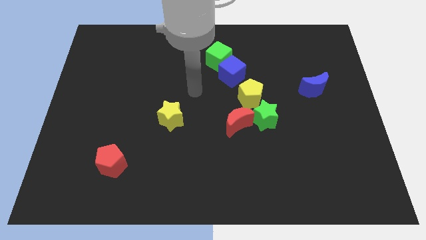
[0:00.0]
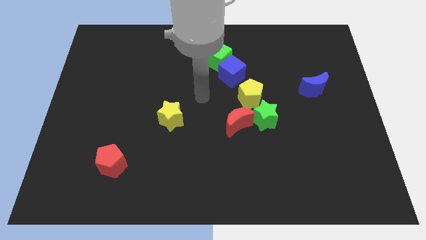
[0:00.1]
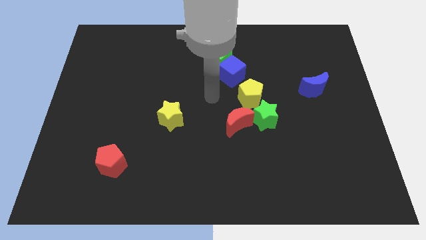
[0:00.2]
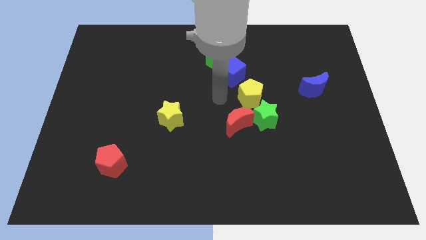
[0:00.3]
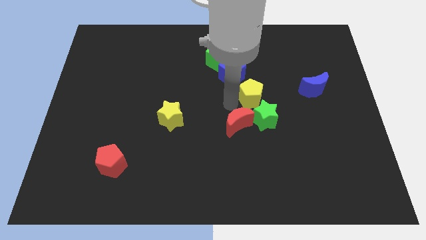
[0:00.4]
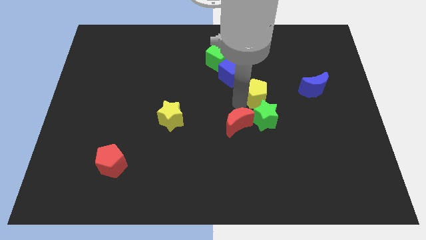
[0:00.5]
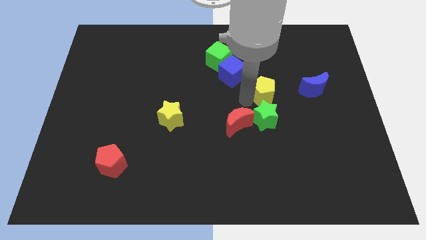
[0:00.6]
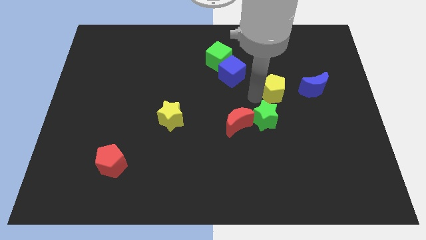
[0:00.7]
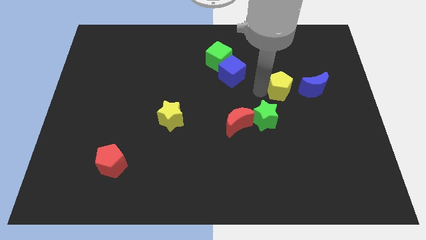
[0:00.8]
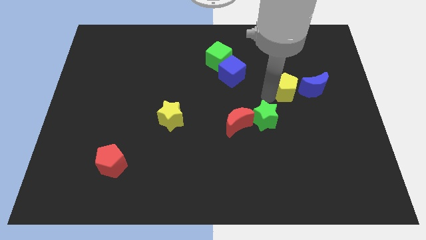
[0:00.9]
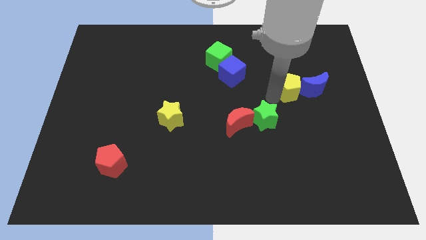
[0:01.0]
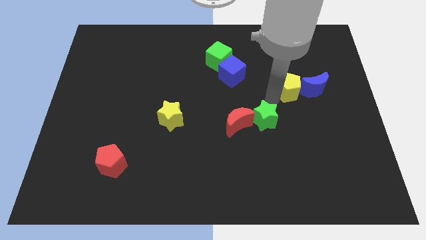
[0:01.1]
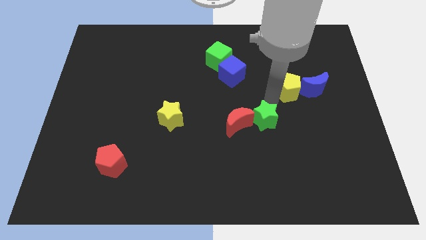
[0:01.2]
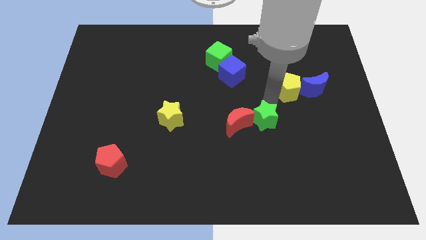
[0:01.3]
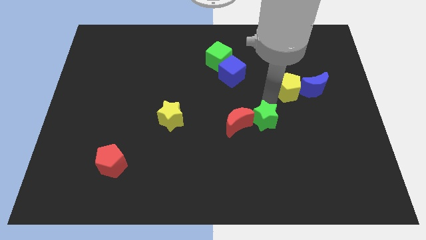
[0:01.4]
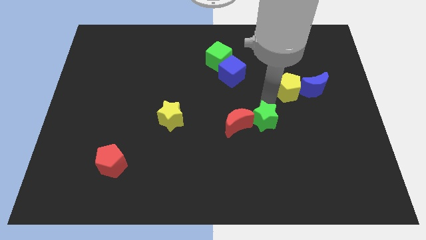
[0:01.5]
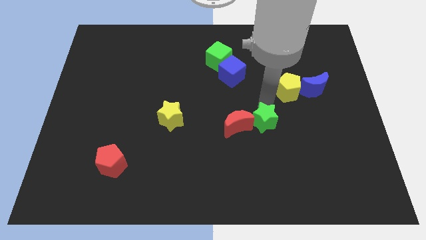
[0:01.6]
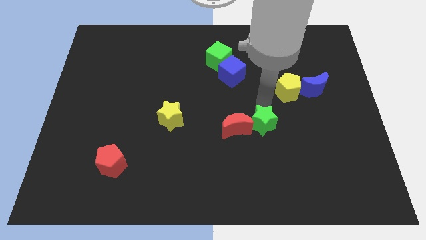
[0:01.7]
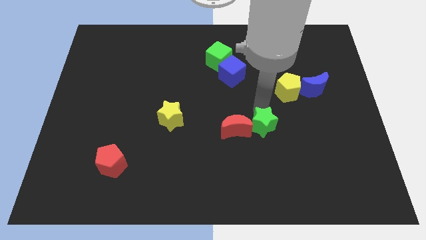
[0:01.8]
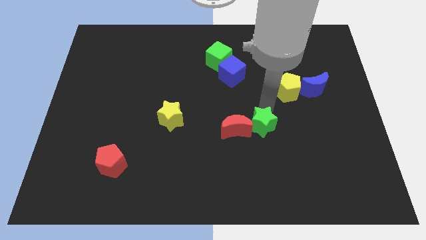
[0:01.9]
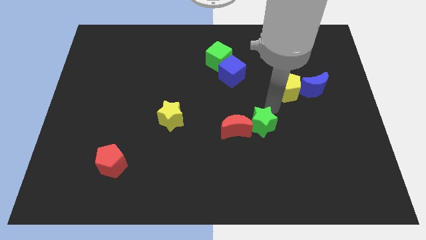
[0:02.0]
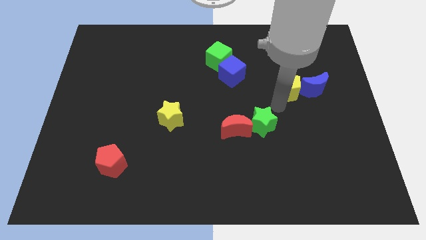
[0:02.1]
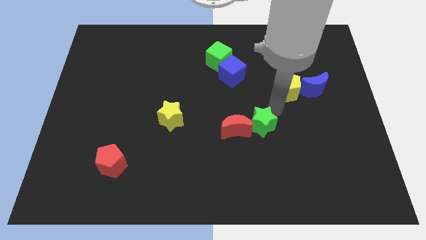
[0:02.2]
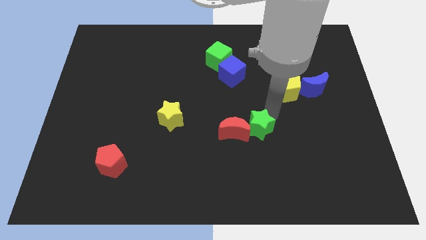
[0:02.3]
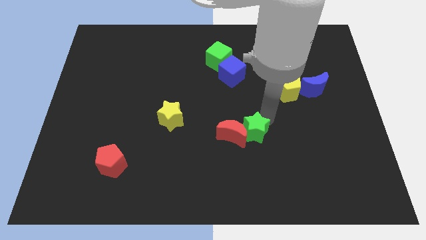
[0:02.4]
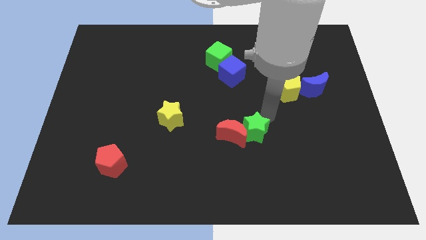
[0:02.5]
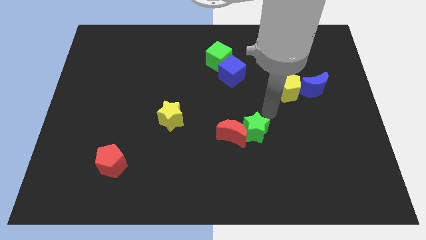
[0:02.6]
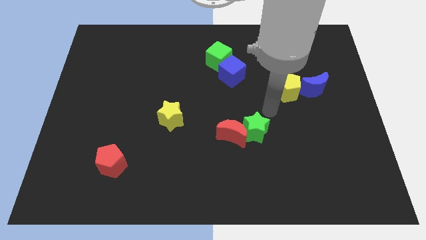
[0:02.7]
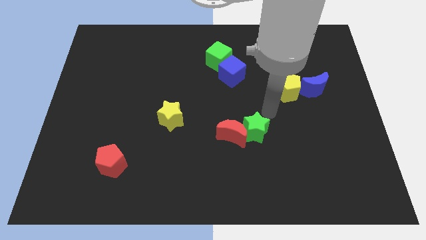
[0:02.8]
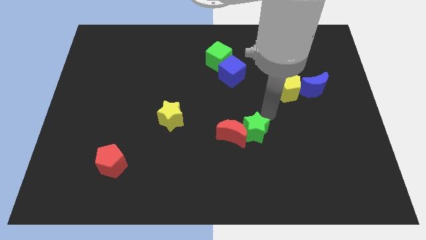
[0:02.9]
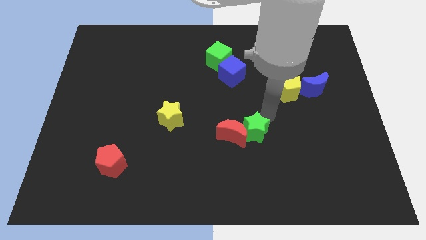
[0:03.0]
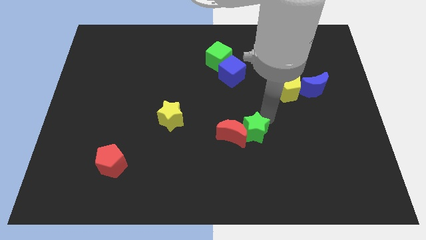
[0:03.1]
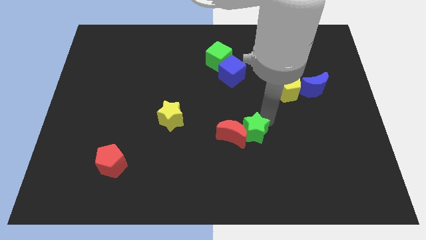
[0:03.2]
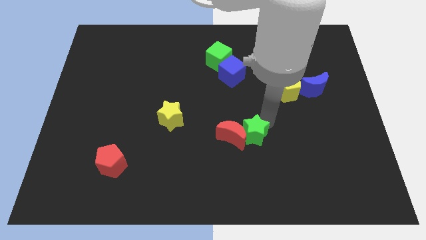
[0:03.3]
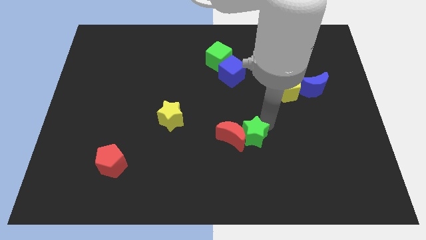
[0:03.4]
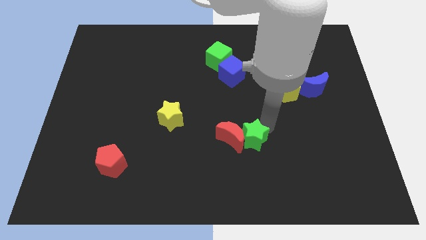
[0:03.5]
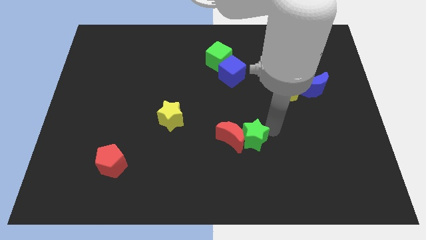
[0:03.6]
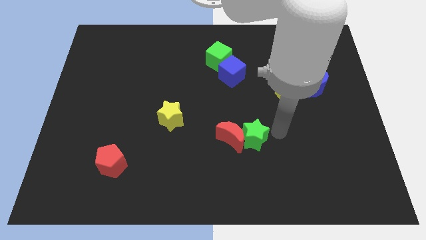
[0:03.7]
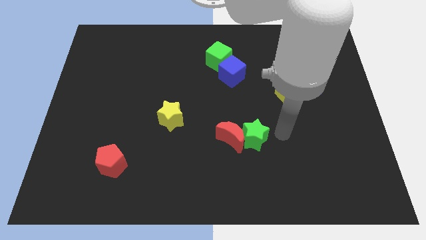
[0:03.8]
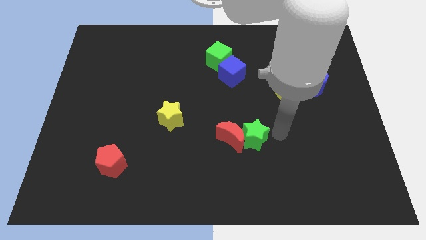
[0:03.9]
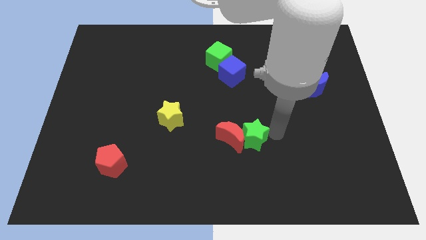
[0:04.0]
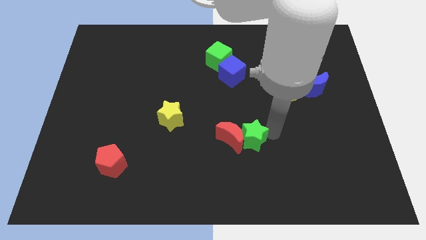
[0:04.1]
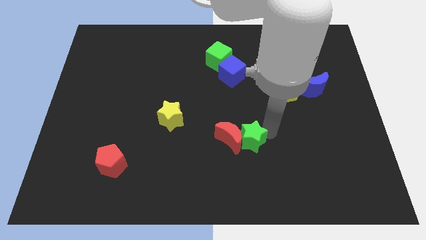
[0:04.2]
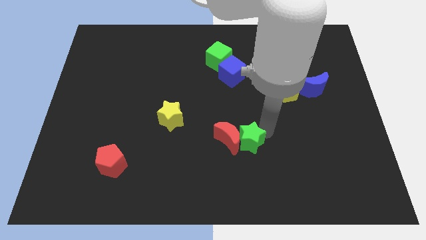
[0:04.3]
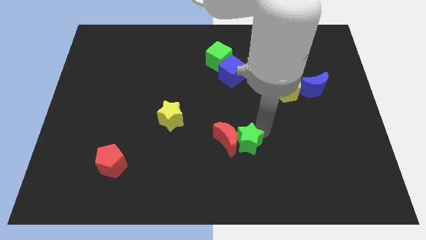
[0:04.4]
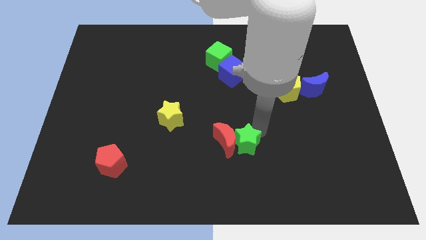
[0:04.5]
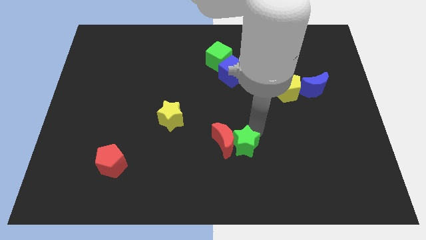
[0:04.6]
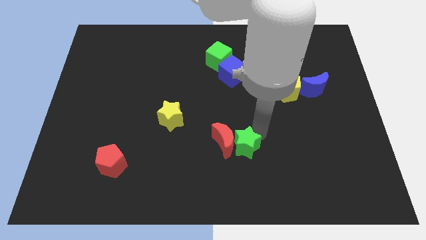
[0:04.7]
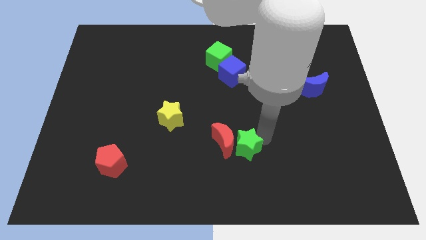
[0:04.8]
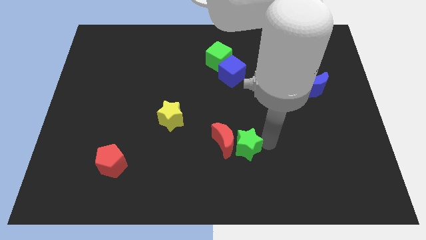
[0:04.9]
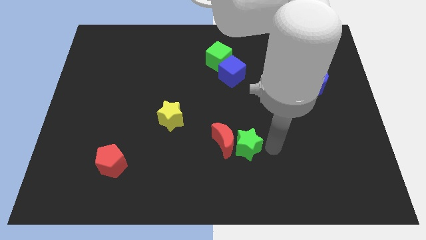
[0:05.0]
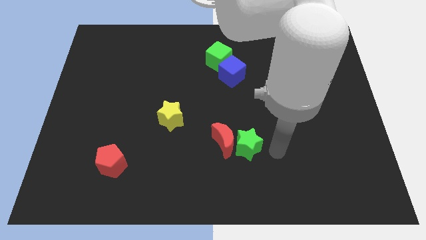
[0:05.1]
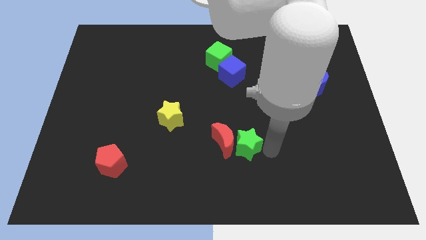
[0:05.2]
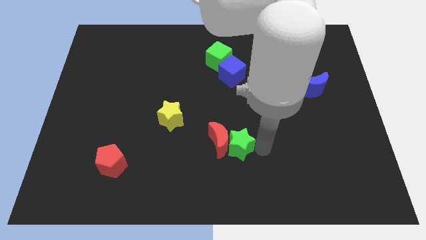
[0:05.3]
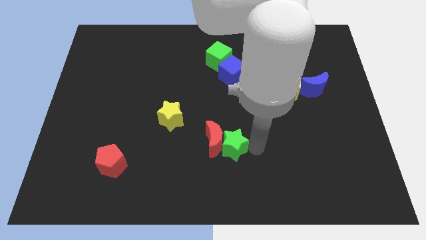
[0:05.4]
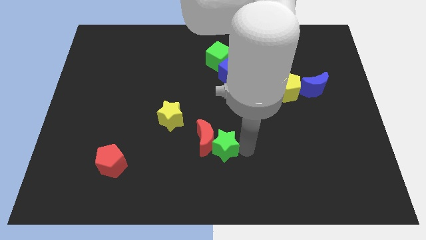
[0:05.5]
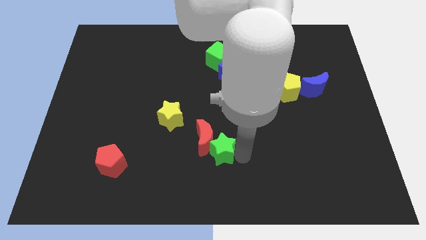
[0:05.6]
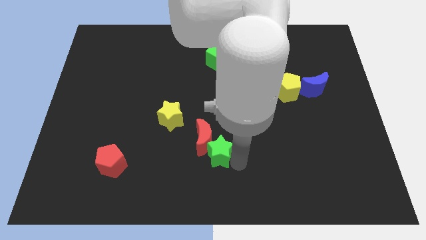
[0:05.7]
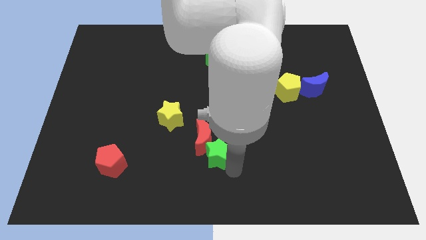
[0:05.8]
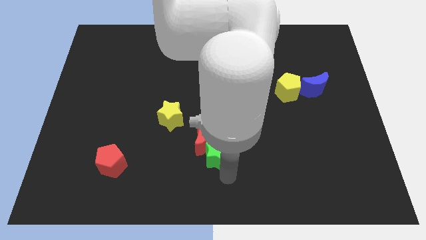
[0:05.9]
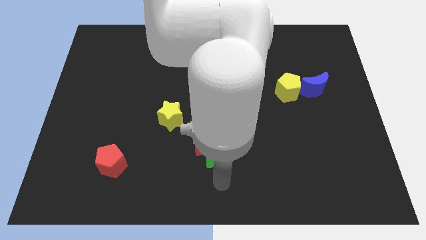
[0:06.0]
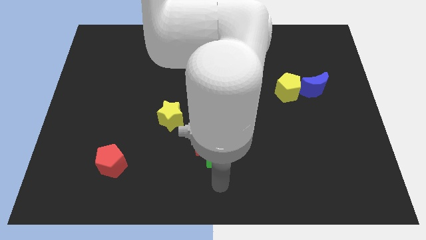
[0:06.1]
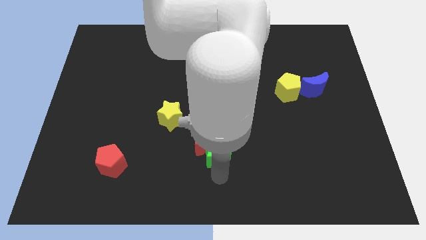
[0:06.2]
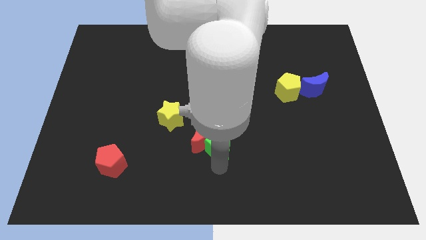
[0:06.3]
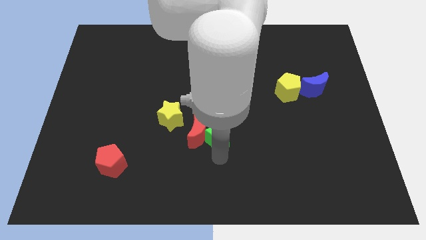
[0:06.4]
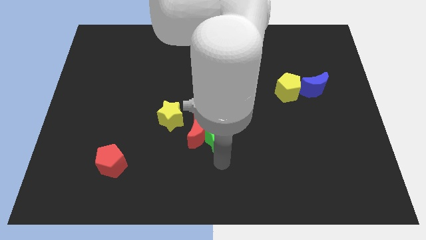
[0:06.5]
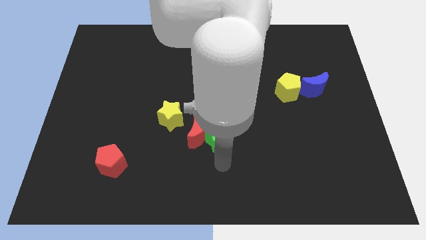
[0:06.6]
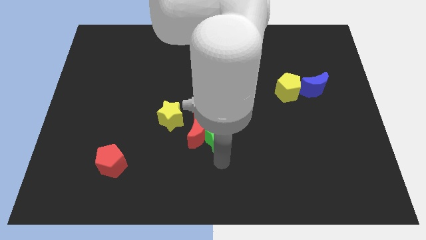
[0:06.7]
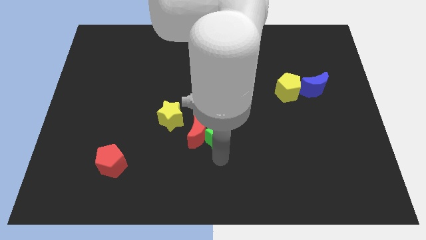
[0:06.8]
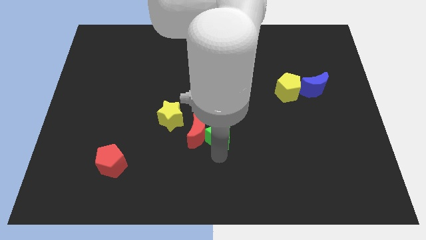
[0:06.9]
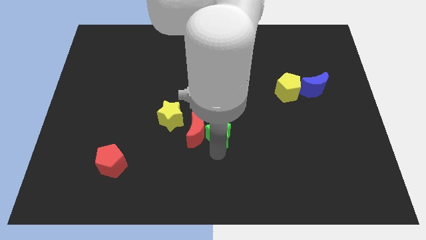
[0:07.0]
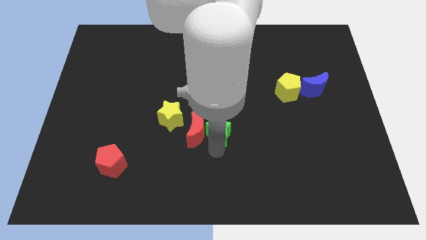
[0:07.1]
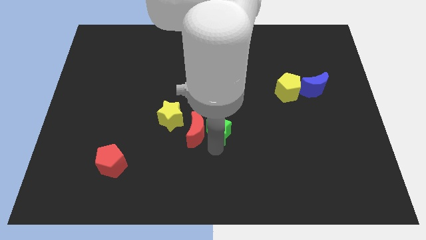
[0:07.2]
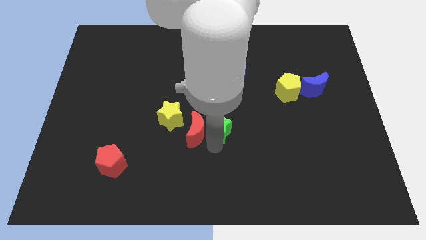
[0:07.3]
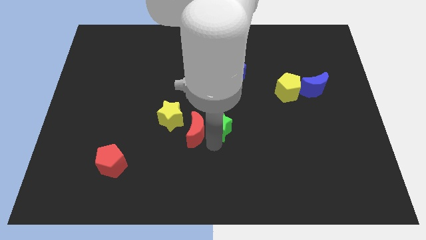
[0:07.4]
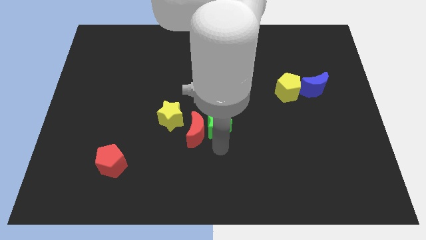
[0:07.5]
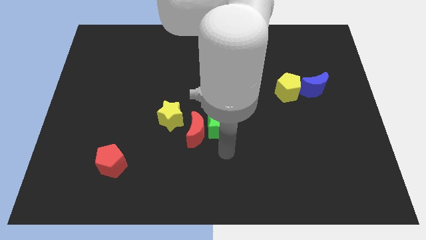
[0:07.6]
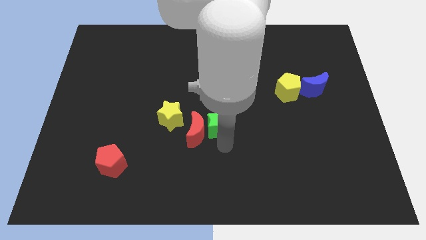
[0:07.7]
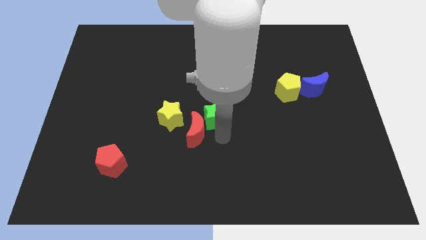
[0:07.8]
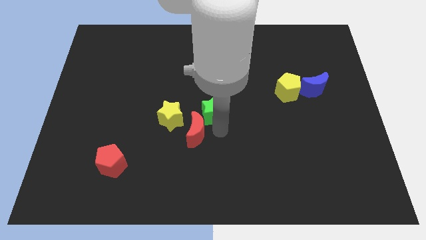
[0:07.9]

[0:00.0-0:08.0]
push the green star upwards and left somewhat

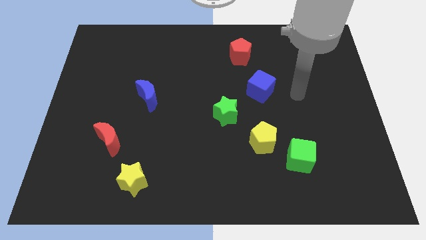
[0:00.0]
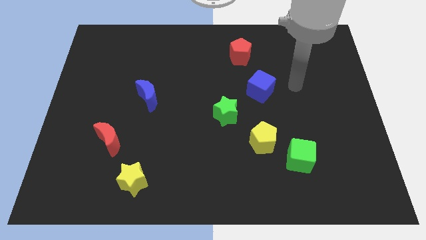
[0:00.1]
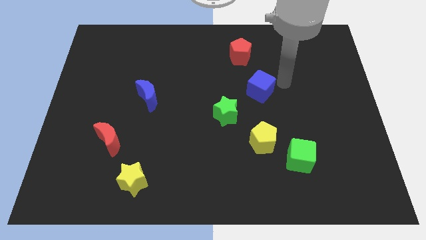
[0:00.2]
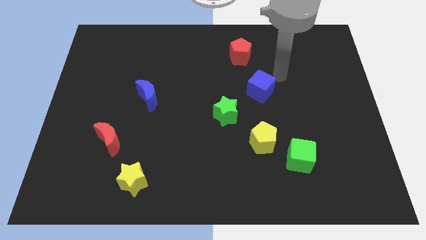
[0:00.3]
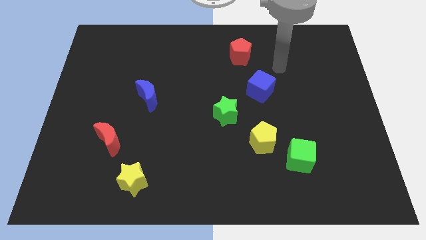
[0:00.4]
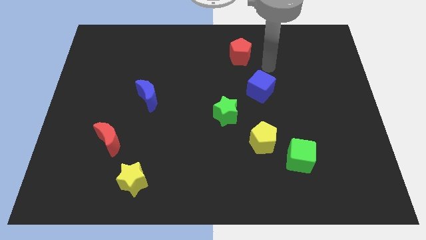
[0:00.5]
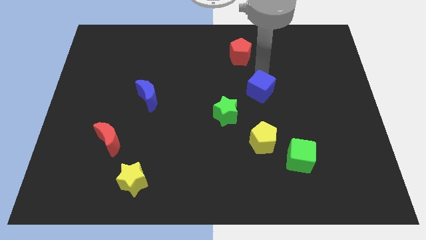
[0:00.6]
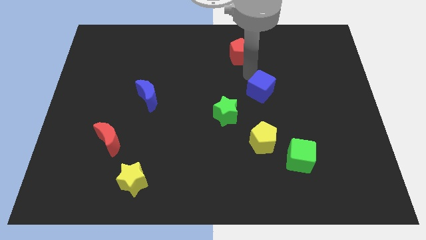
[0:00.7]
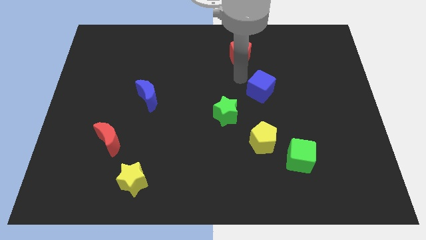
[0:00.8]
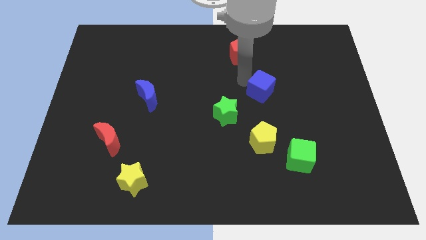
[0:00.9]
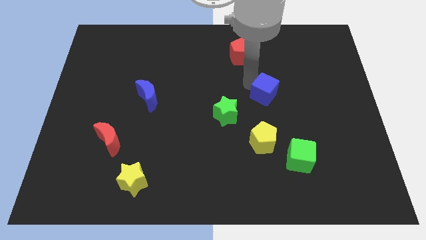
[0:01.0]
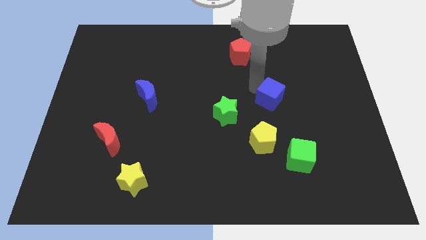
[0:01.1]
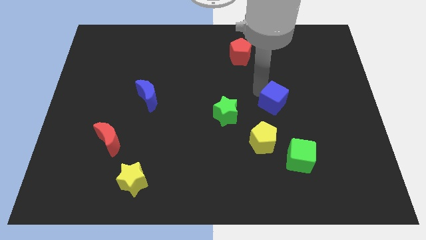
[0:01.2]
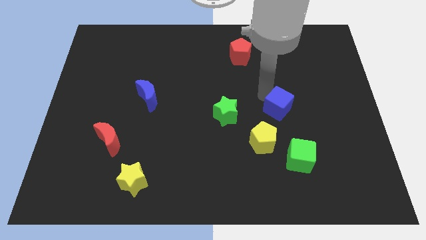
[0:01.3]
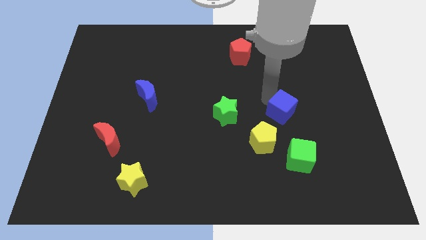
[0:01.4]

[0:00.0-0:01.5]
push the blue cube downwards and right slightly
